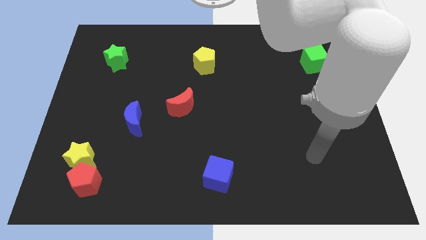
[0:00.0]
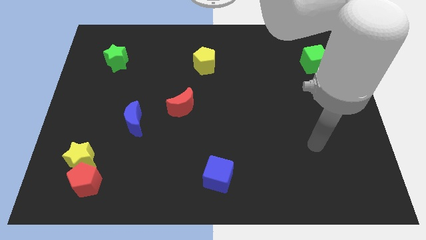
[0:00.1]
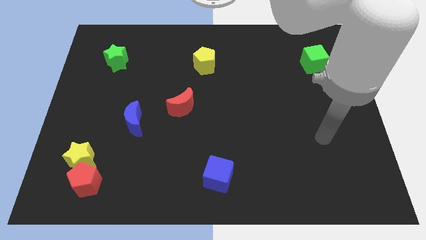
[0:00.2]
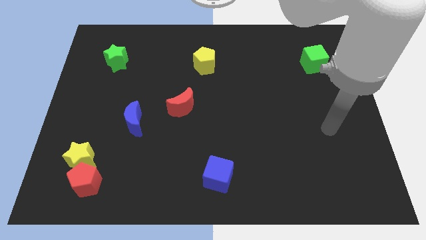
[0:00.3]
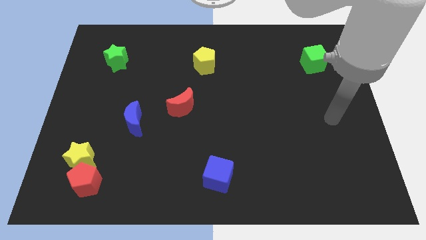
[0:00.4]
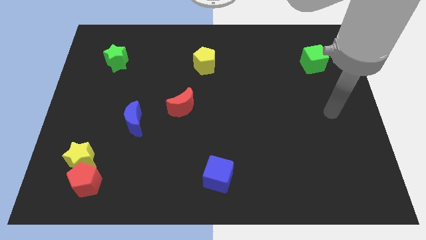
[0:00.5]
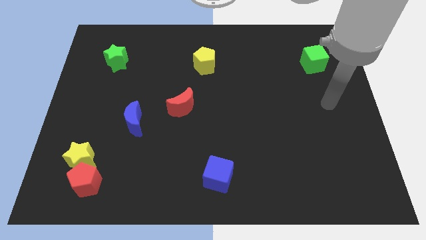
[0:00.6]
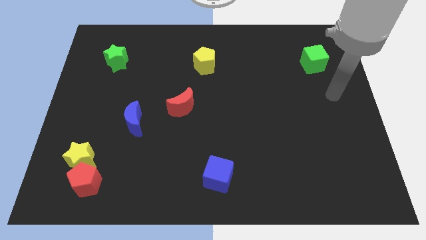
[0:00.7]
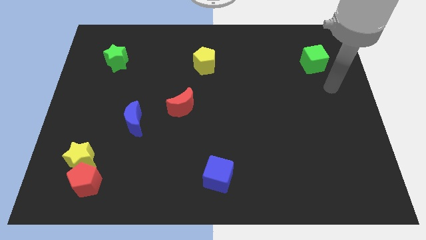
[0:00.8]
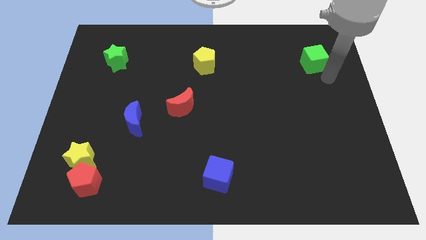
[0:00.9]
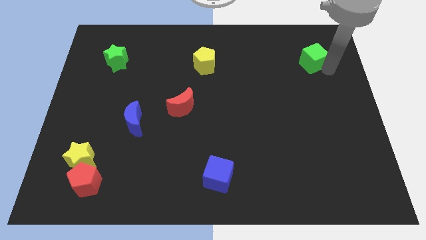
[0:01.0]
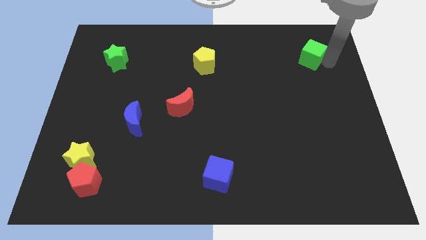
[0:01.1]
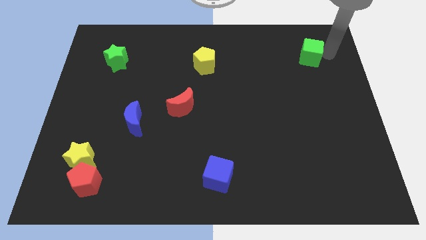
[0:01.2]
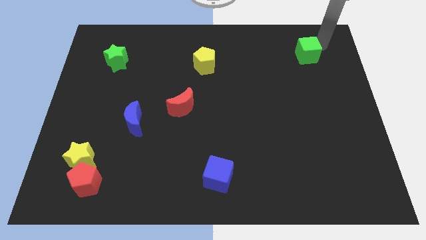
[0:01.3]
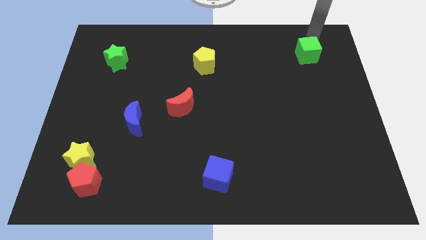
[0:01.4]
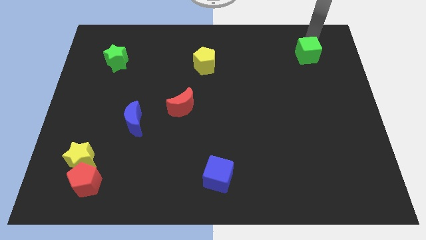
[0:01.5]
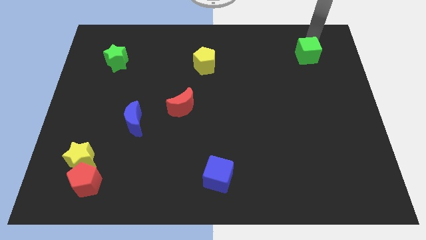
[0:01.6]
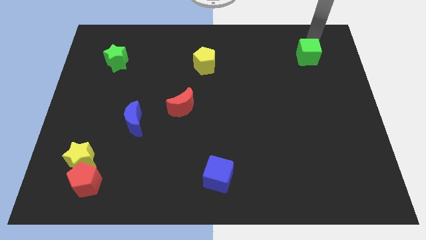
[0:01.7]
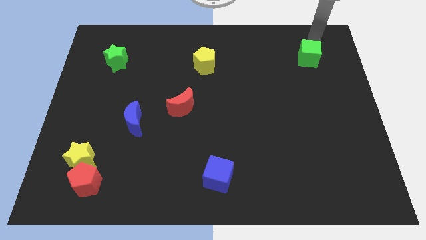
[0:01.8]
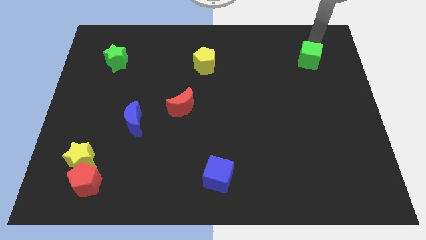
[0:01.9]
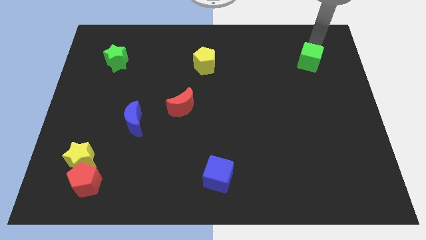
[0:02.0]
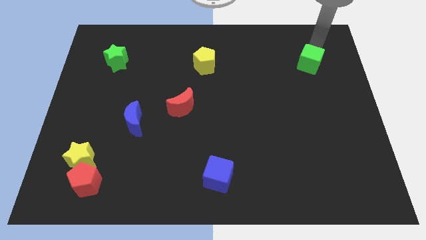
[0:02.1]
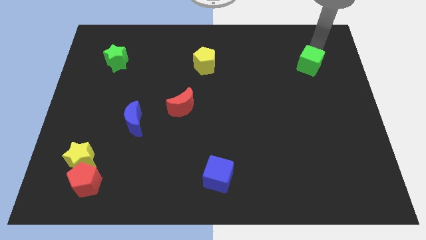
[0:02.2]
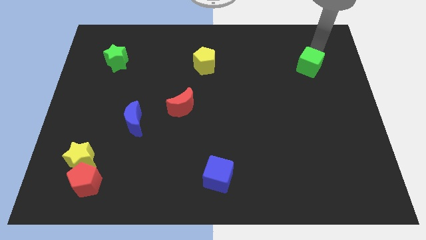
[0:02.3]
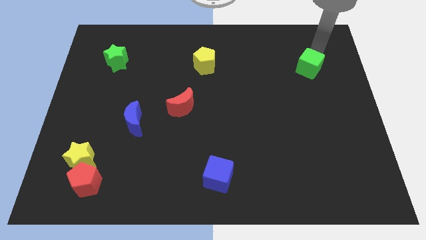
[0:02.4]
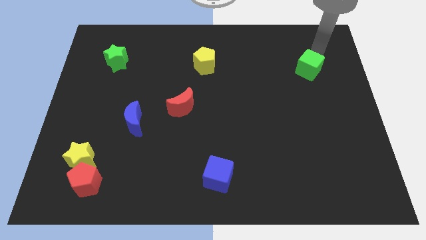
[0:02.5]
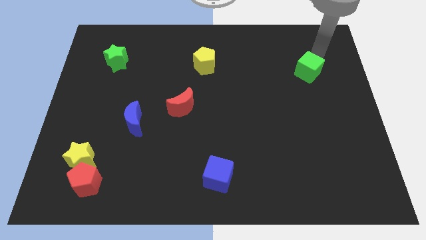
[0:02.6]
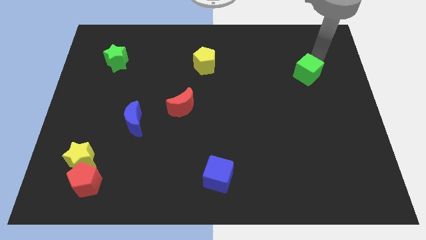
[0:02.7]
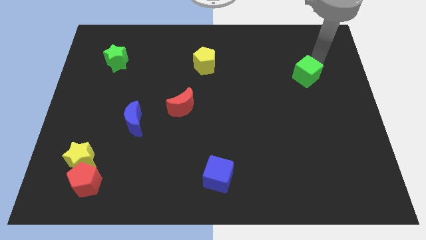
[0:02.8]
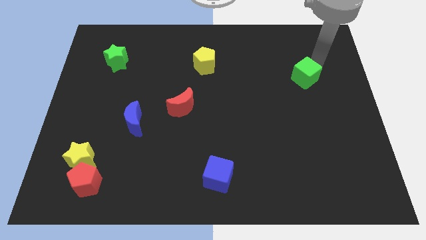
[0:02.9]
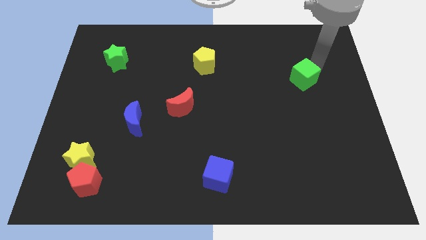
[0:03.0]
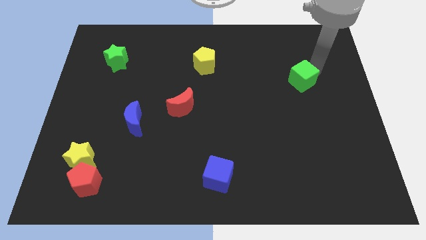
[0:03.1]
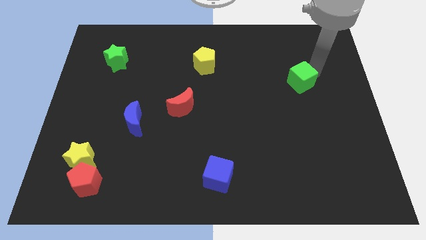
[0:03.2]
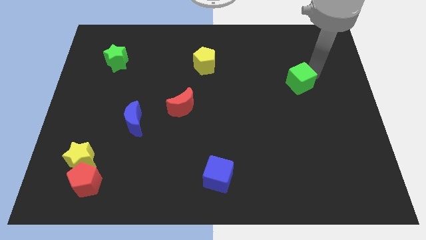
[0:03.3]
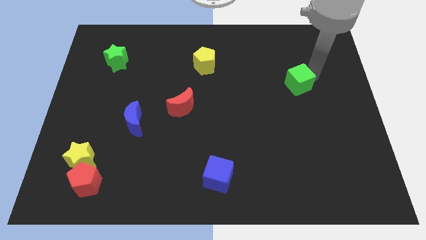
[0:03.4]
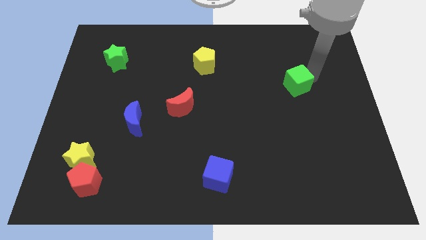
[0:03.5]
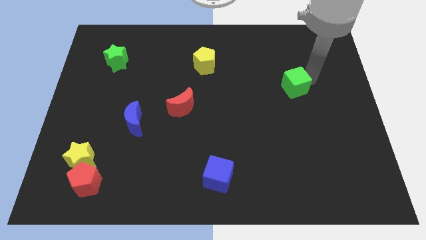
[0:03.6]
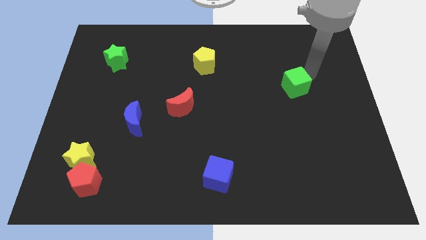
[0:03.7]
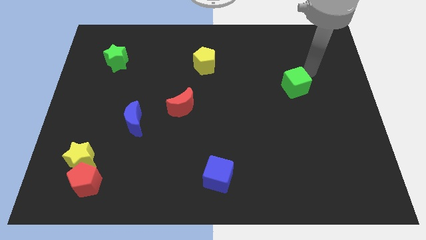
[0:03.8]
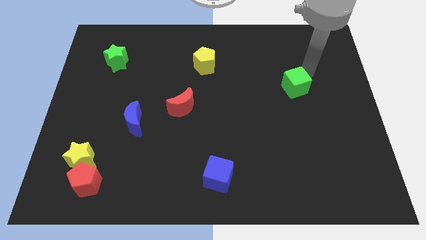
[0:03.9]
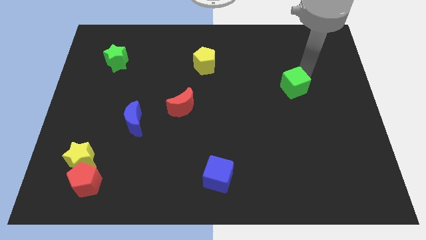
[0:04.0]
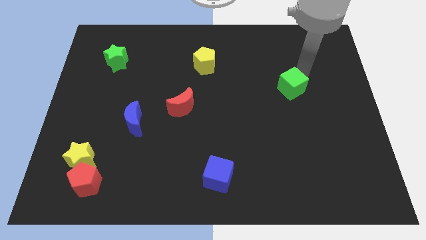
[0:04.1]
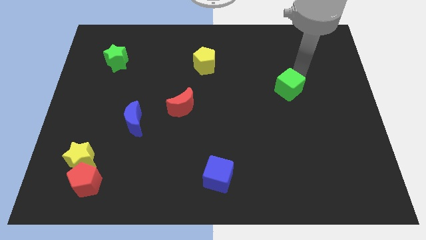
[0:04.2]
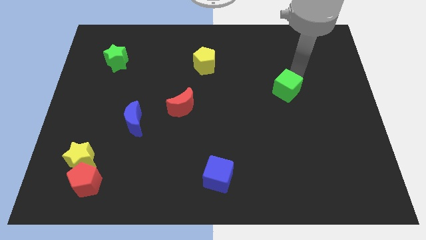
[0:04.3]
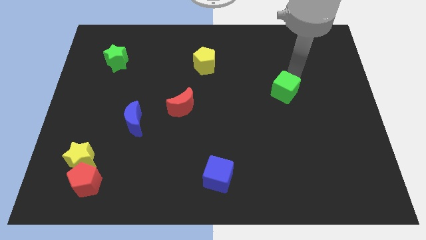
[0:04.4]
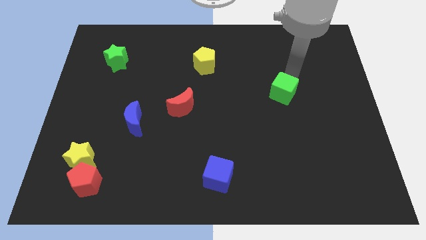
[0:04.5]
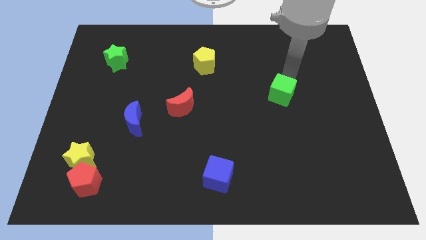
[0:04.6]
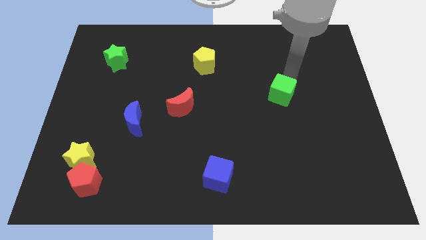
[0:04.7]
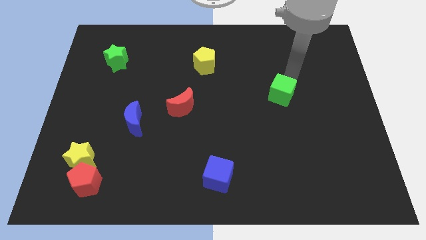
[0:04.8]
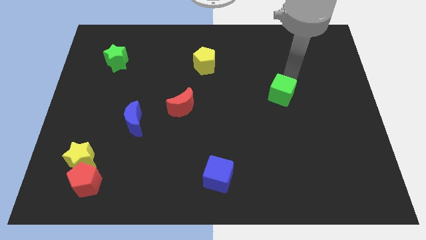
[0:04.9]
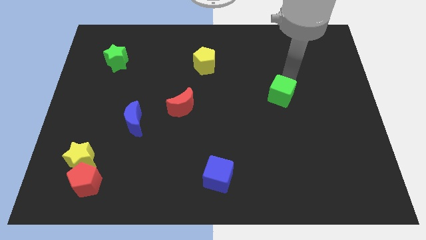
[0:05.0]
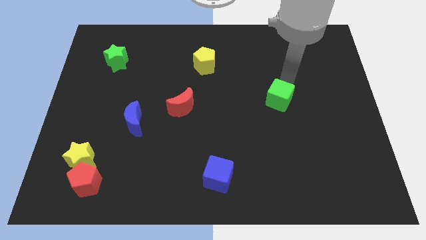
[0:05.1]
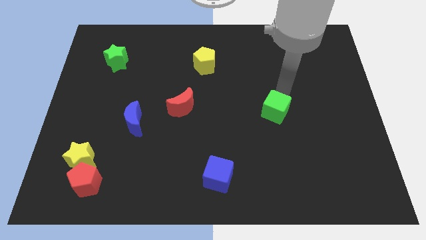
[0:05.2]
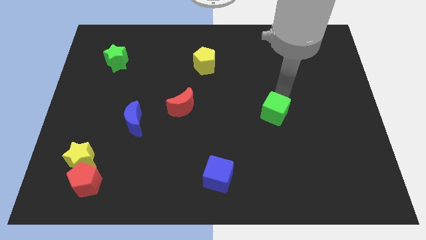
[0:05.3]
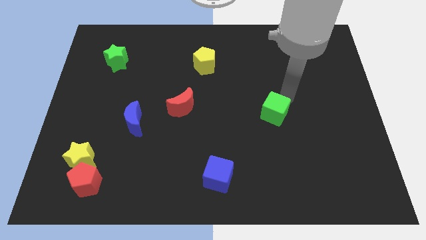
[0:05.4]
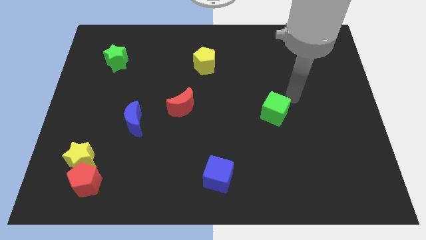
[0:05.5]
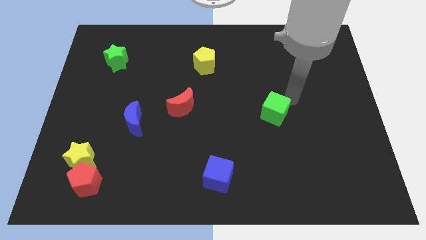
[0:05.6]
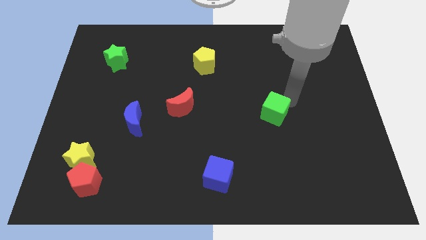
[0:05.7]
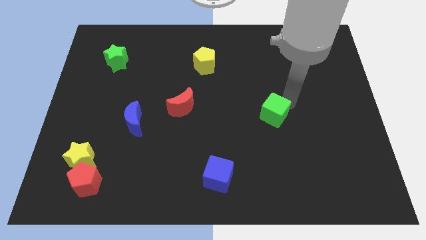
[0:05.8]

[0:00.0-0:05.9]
slide the green cube downwards and to the left

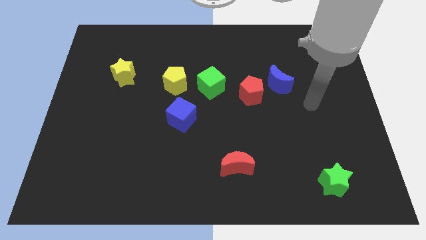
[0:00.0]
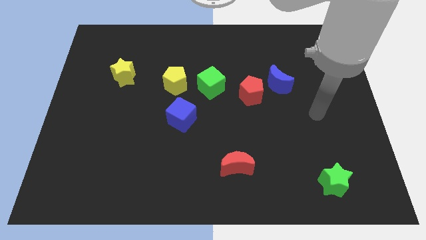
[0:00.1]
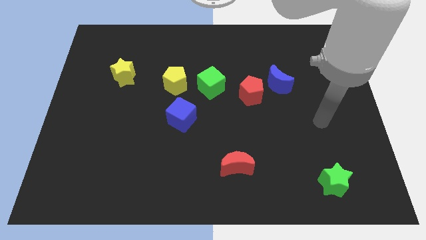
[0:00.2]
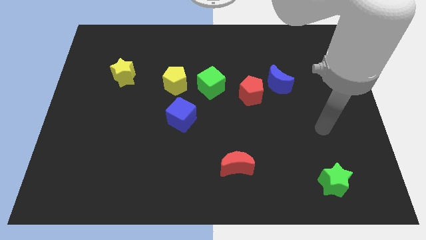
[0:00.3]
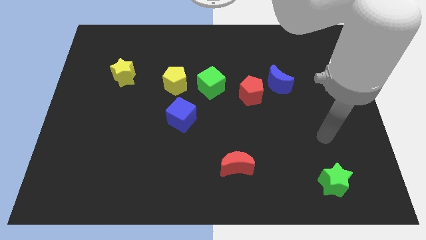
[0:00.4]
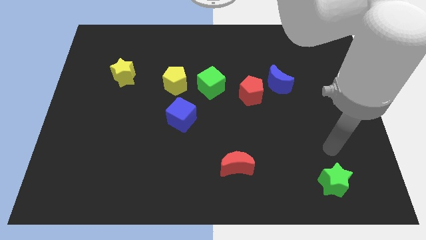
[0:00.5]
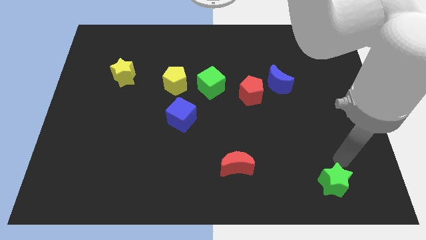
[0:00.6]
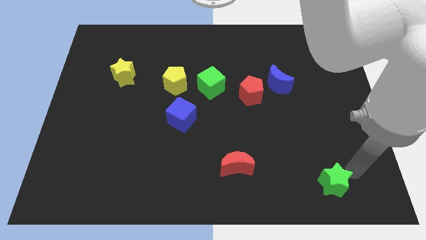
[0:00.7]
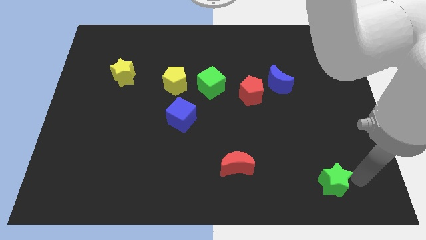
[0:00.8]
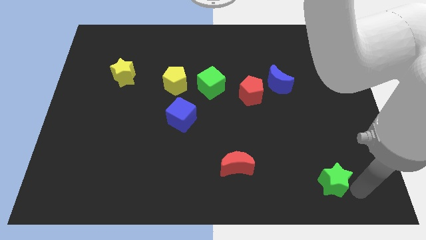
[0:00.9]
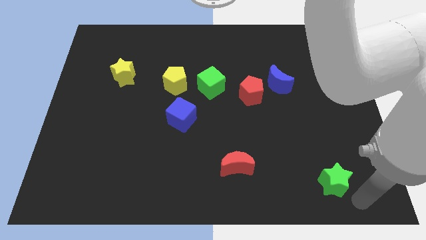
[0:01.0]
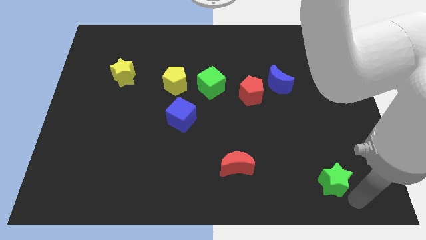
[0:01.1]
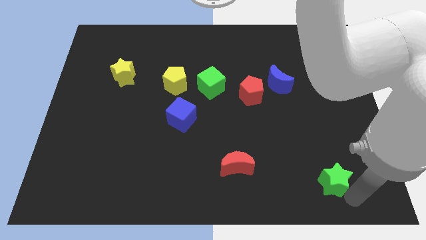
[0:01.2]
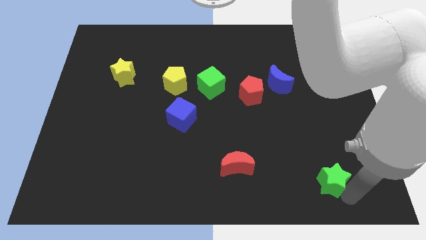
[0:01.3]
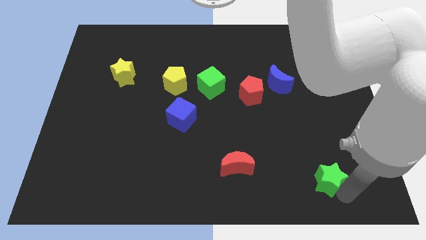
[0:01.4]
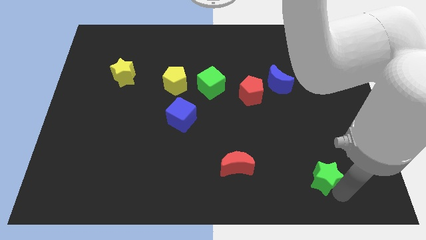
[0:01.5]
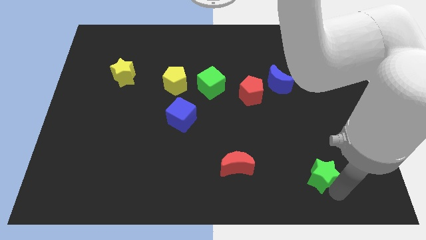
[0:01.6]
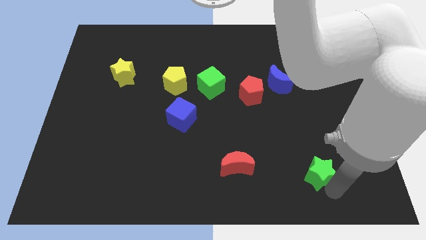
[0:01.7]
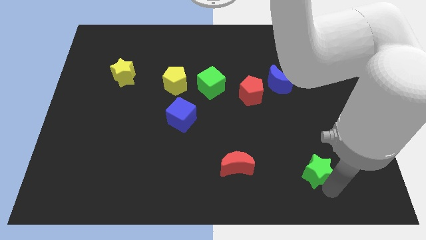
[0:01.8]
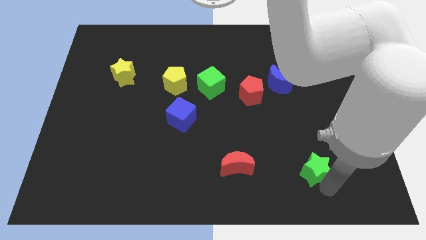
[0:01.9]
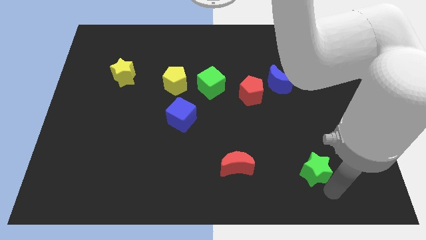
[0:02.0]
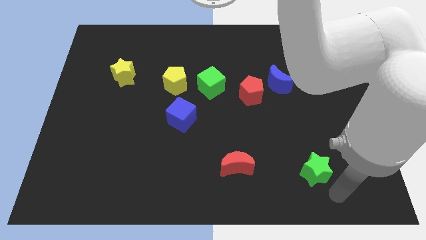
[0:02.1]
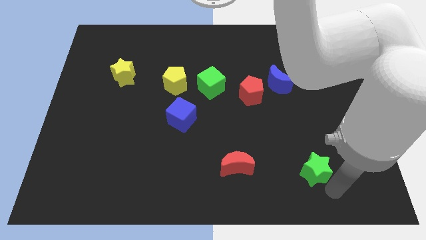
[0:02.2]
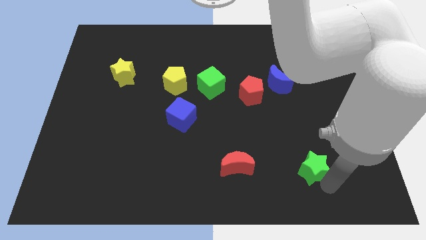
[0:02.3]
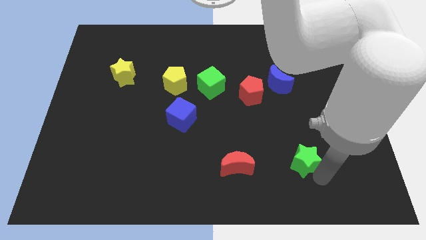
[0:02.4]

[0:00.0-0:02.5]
slide the green star upwards and then to the left somewhat
